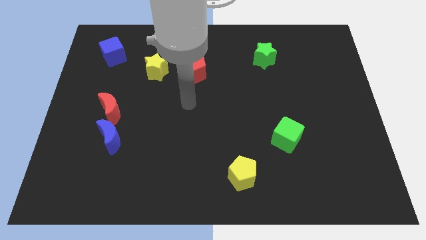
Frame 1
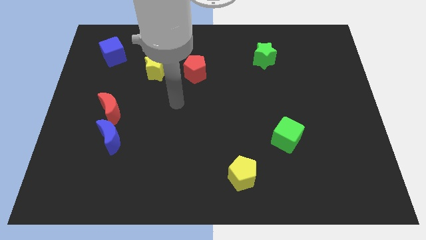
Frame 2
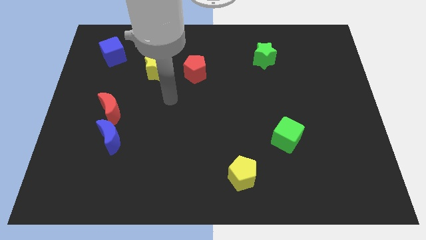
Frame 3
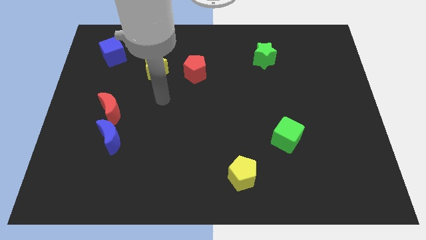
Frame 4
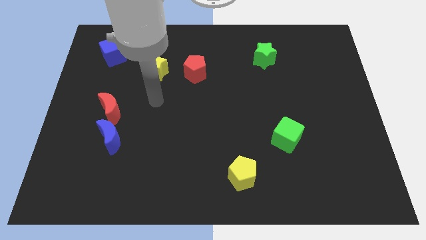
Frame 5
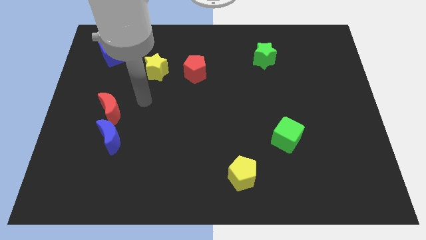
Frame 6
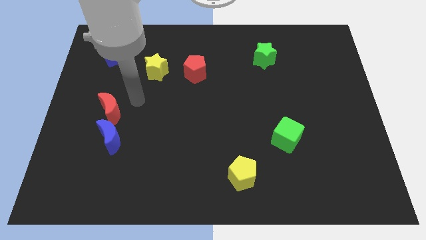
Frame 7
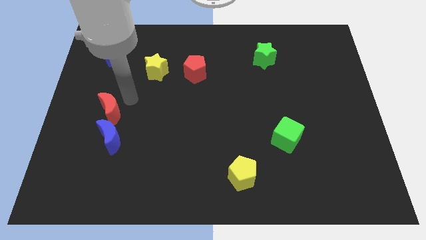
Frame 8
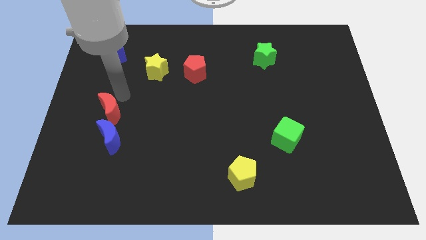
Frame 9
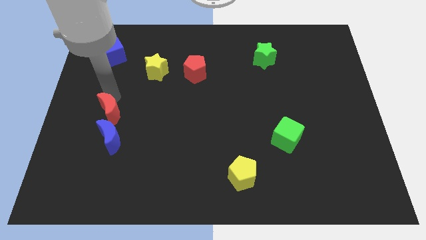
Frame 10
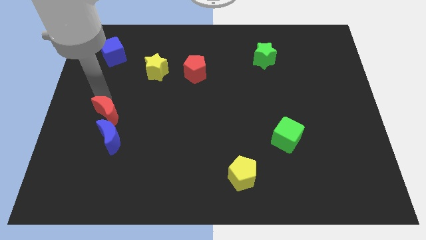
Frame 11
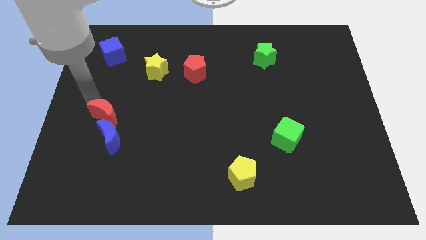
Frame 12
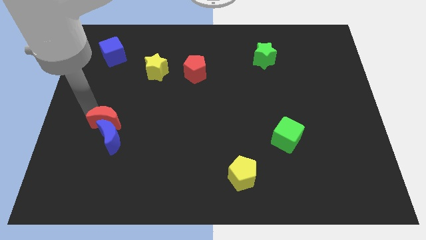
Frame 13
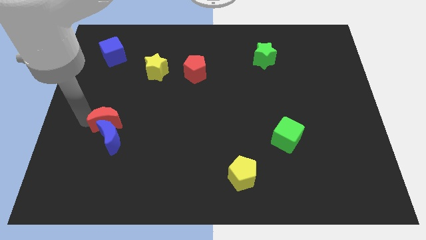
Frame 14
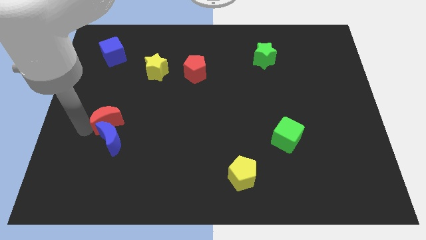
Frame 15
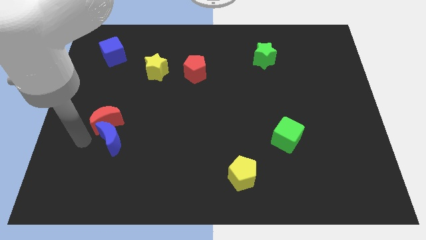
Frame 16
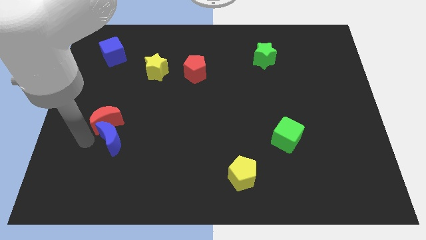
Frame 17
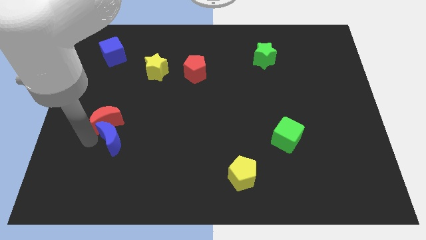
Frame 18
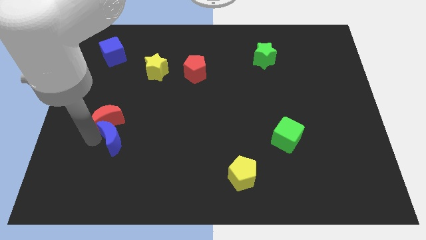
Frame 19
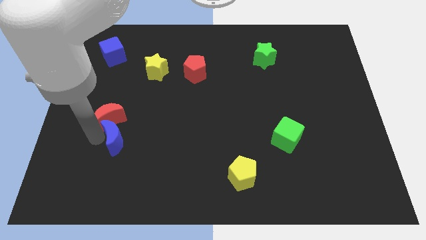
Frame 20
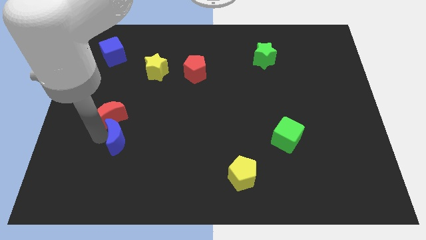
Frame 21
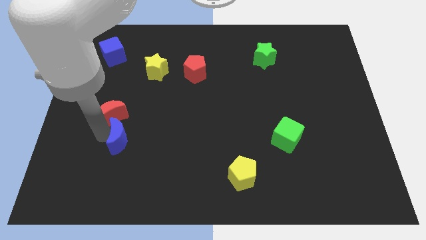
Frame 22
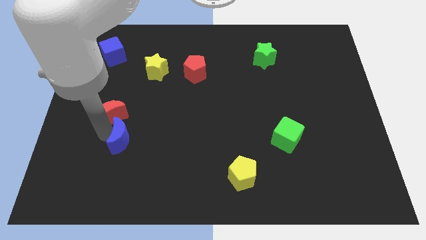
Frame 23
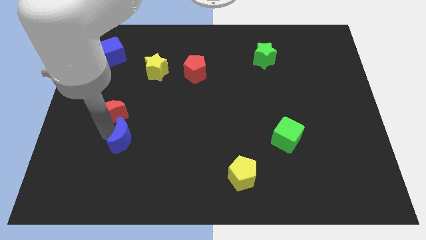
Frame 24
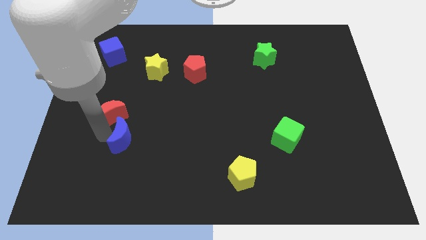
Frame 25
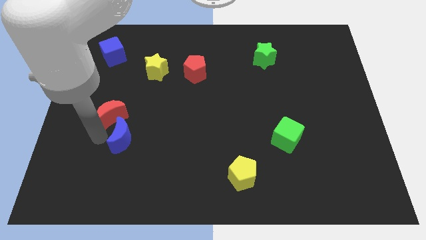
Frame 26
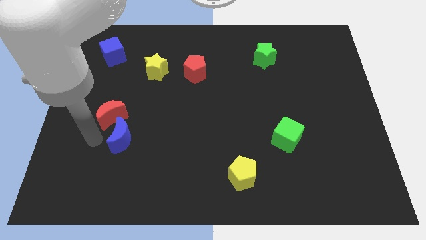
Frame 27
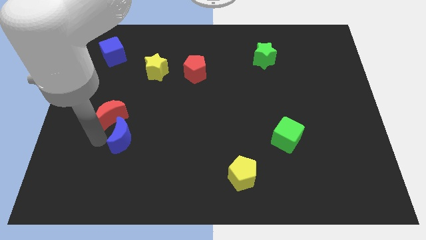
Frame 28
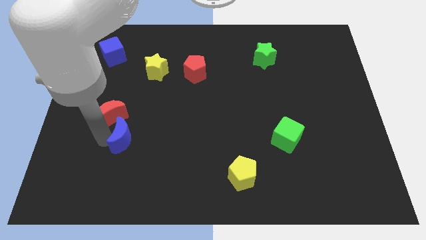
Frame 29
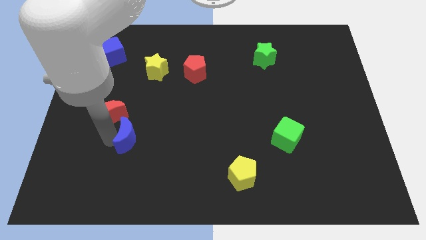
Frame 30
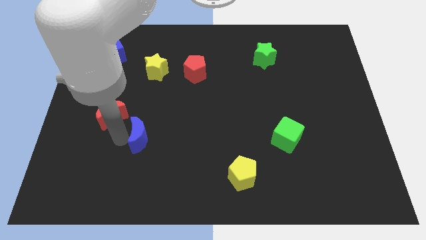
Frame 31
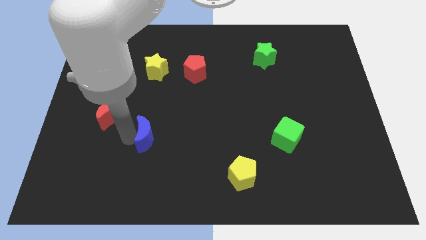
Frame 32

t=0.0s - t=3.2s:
push the blue moon a little right

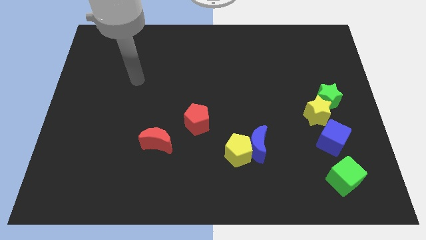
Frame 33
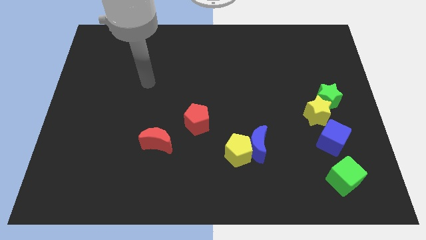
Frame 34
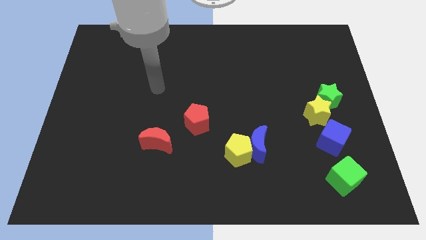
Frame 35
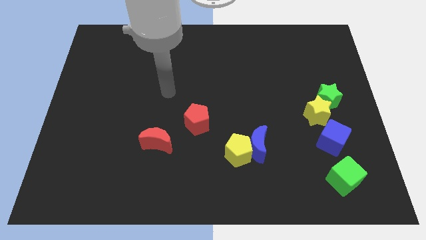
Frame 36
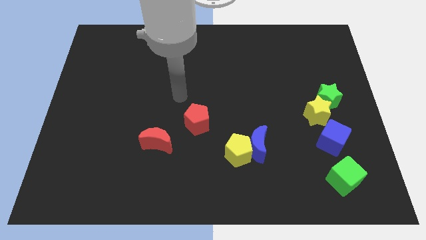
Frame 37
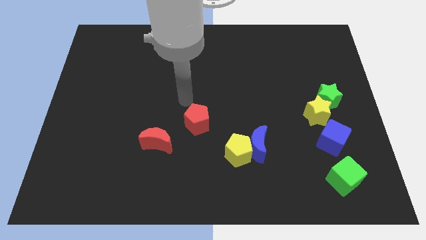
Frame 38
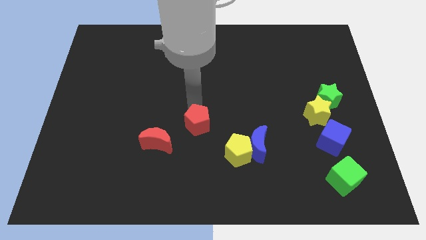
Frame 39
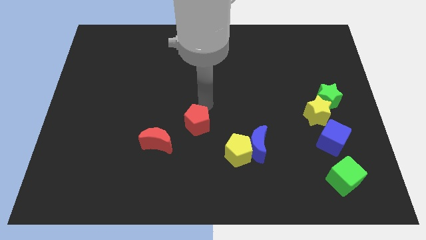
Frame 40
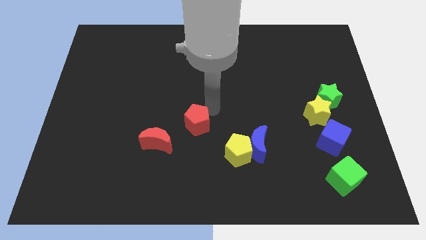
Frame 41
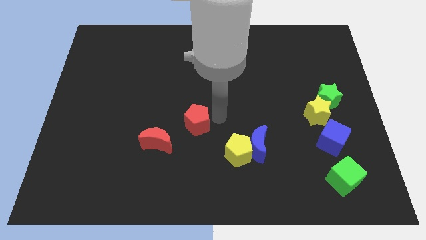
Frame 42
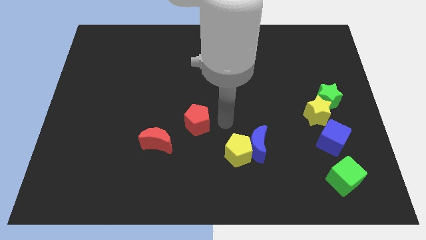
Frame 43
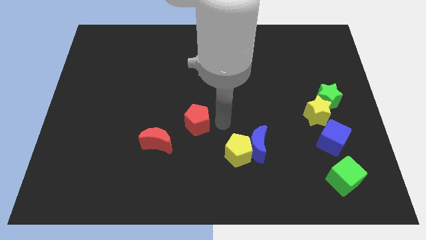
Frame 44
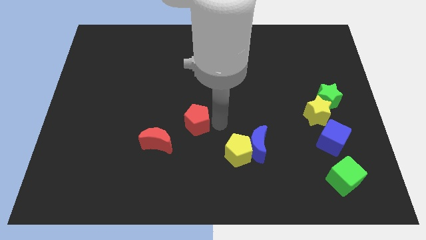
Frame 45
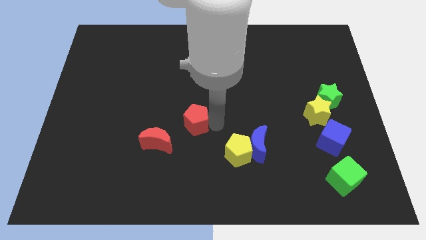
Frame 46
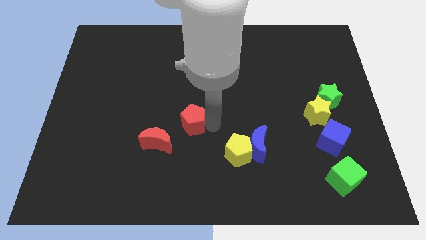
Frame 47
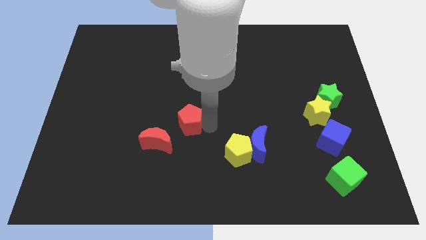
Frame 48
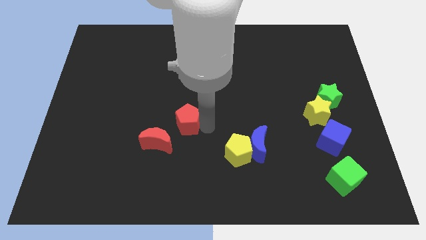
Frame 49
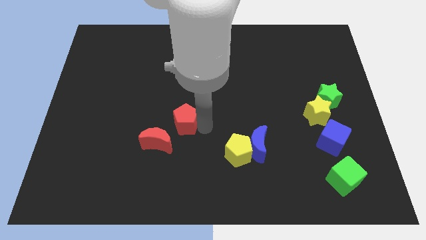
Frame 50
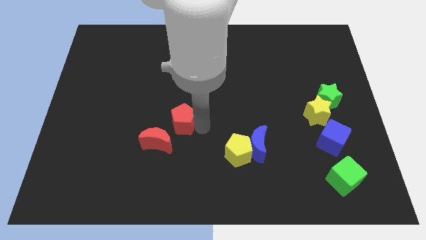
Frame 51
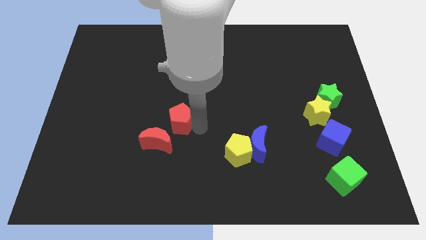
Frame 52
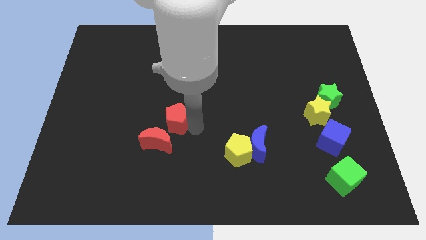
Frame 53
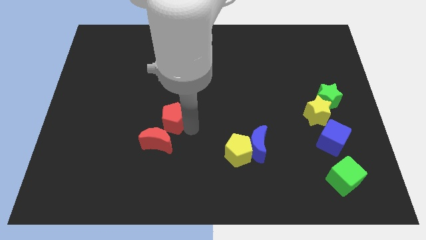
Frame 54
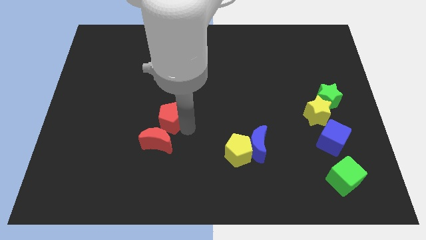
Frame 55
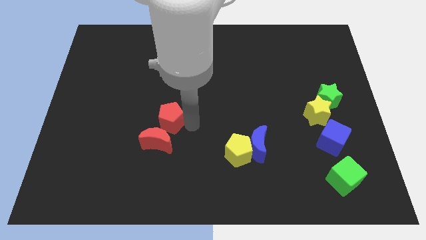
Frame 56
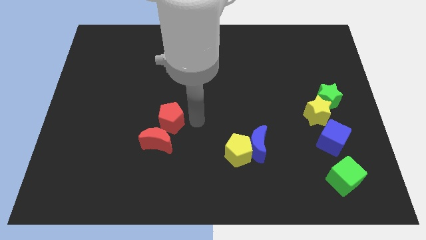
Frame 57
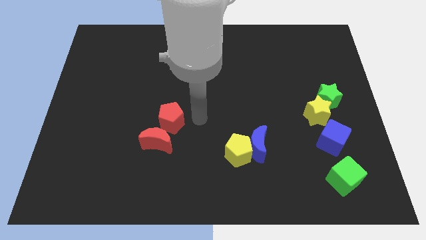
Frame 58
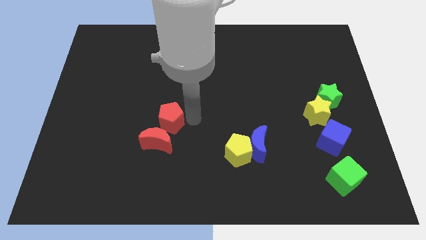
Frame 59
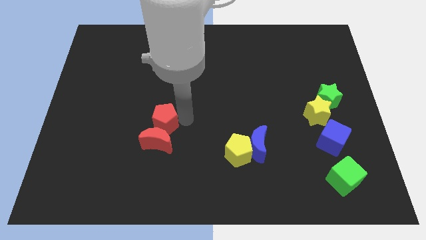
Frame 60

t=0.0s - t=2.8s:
slightly move the red pentagon to the left

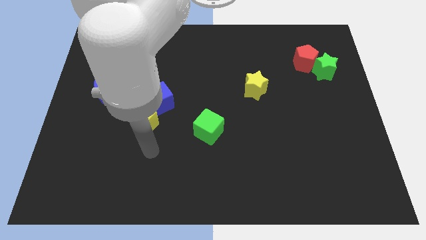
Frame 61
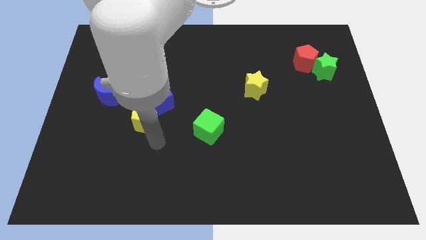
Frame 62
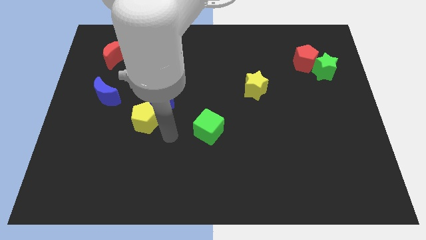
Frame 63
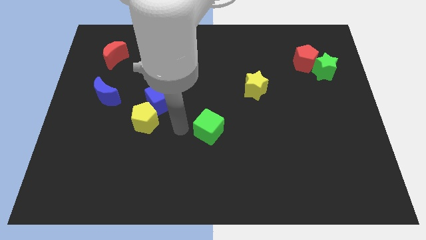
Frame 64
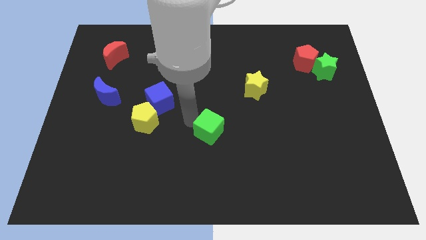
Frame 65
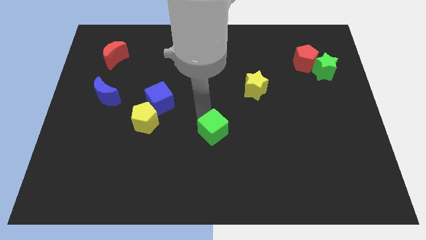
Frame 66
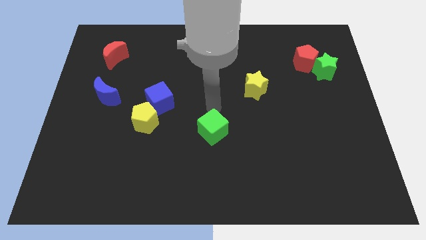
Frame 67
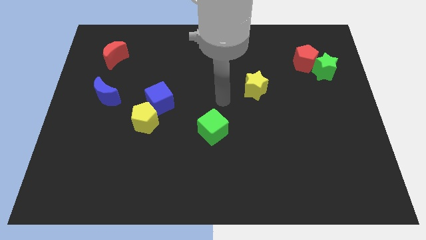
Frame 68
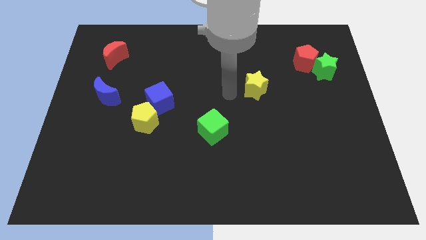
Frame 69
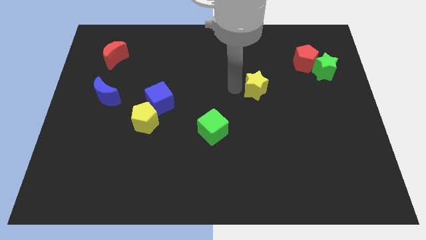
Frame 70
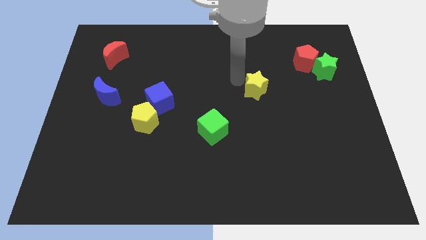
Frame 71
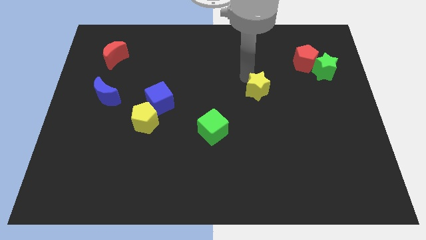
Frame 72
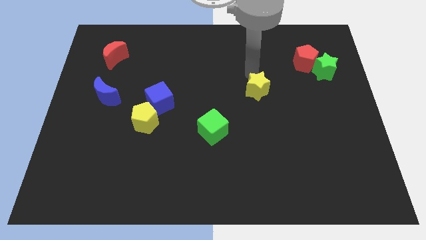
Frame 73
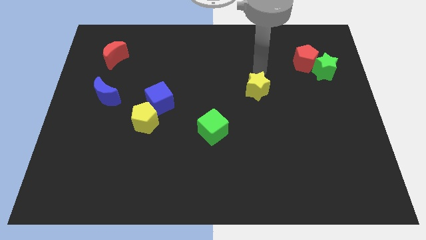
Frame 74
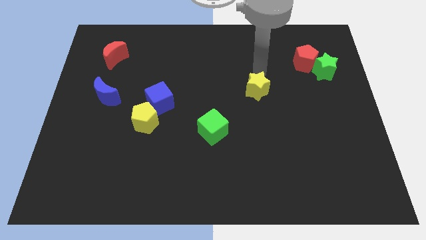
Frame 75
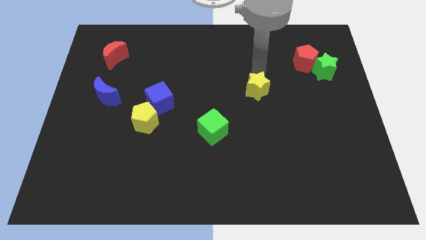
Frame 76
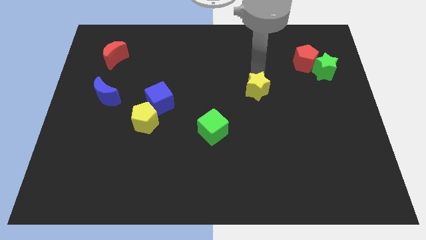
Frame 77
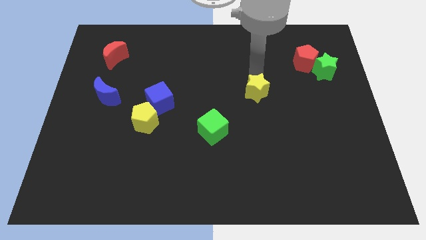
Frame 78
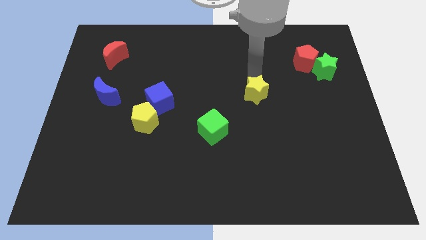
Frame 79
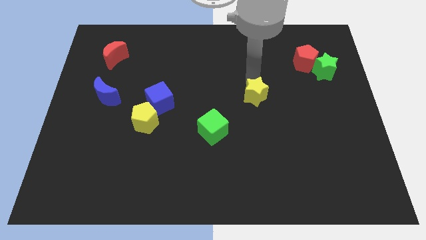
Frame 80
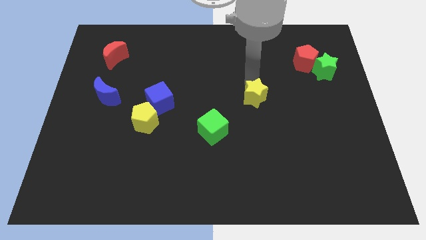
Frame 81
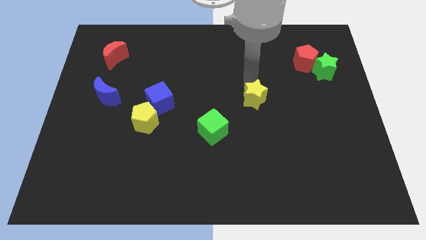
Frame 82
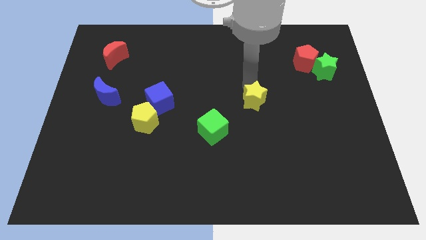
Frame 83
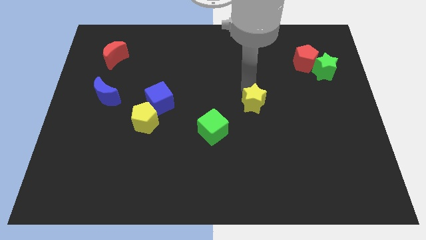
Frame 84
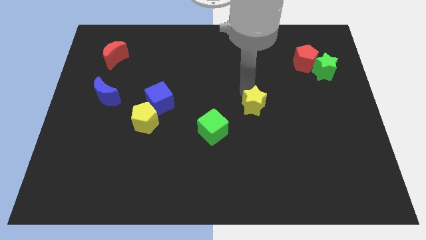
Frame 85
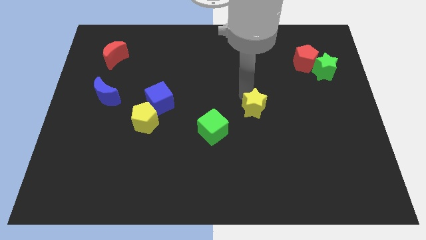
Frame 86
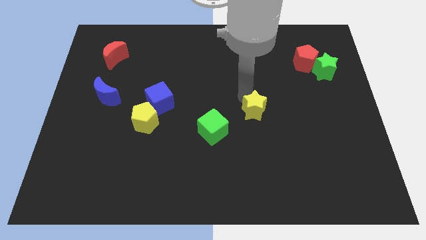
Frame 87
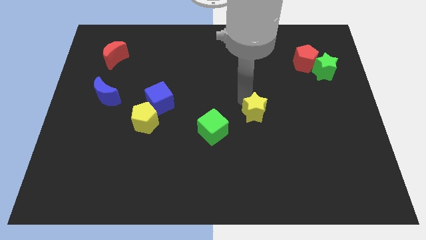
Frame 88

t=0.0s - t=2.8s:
push the yellow star down a bit
